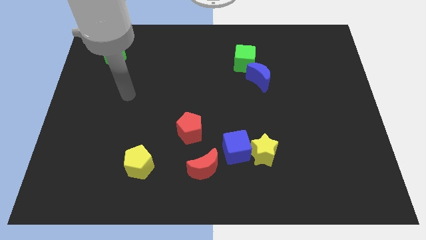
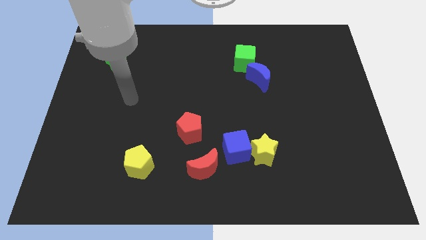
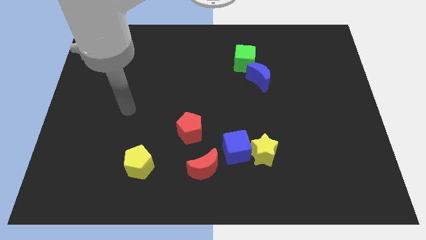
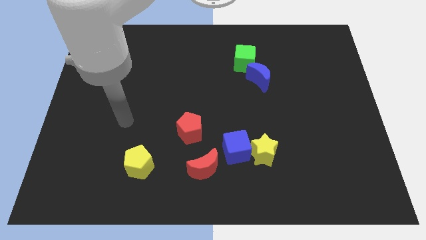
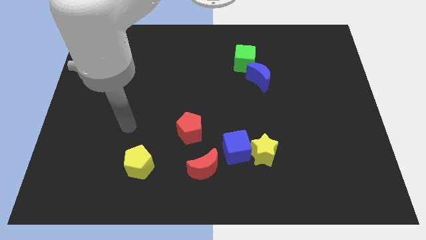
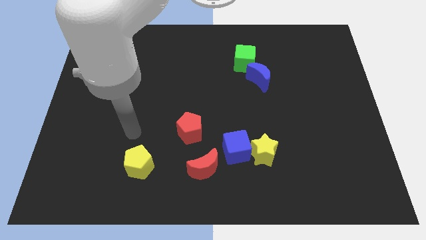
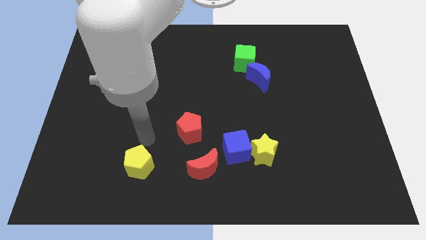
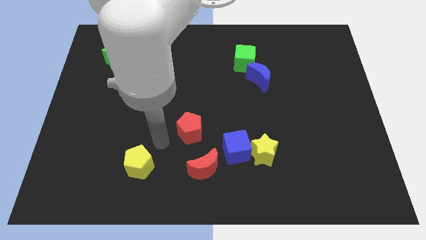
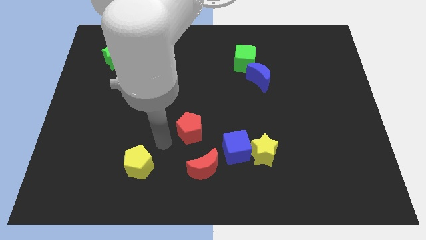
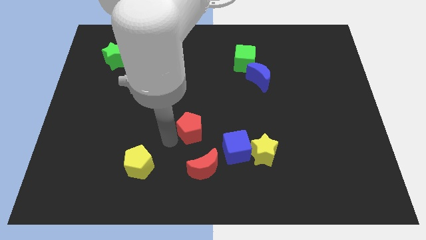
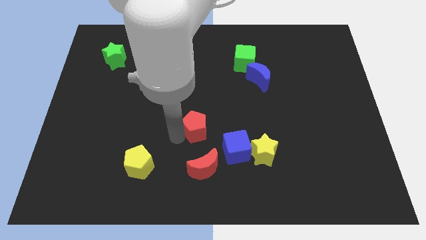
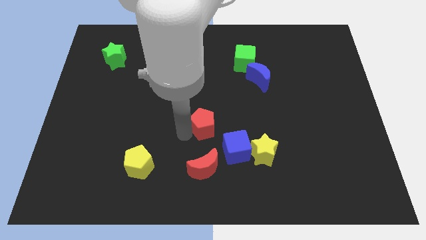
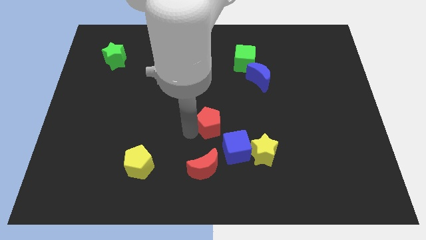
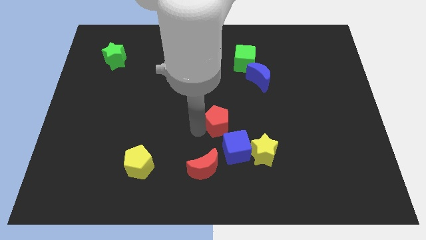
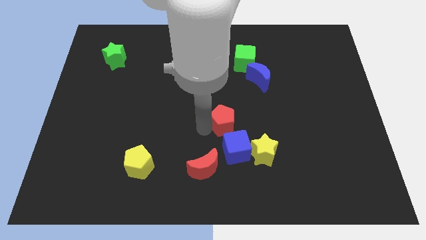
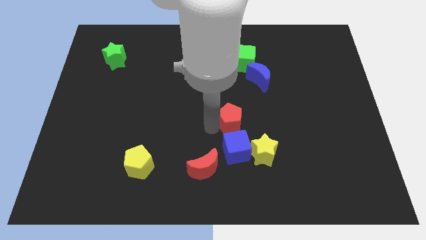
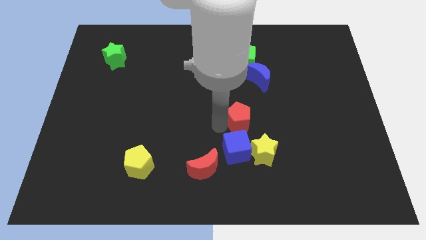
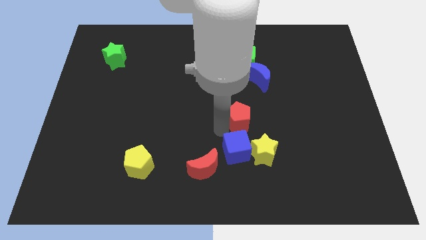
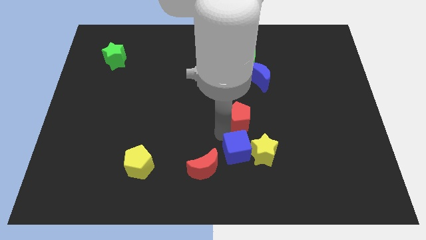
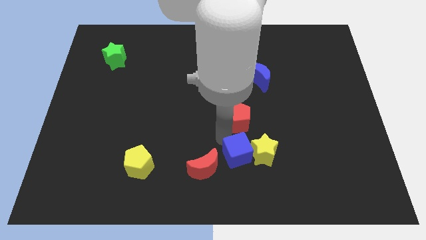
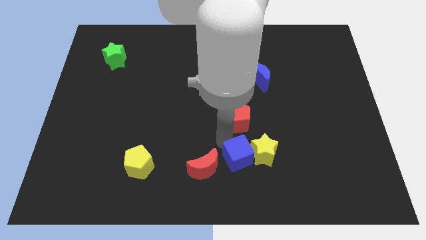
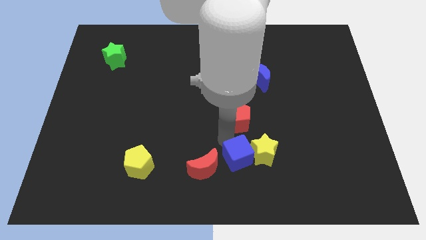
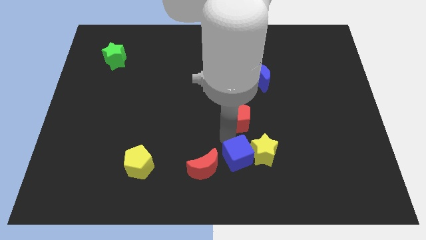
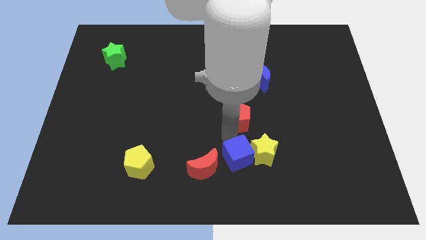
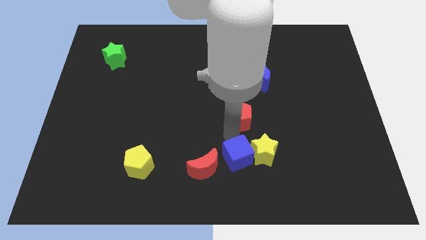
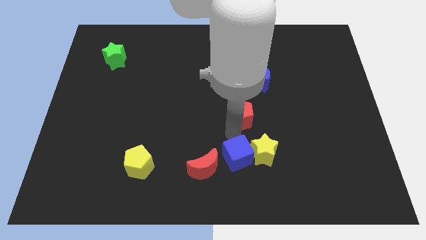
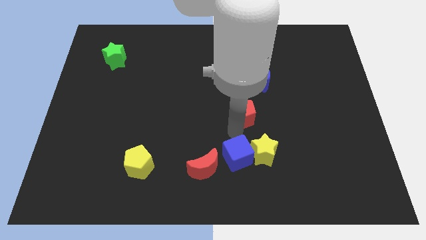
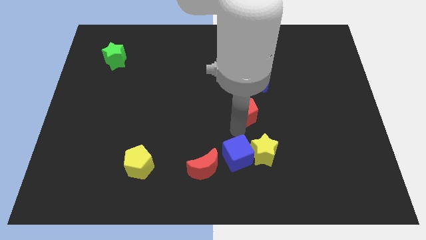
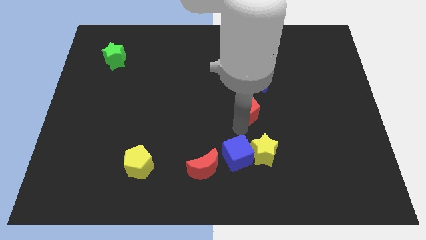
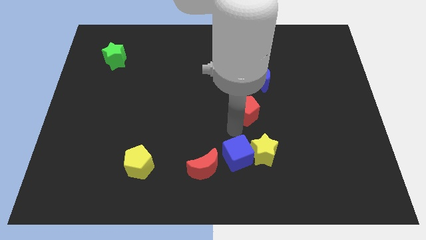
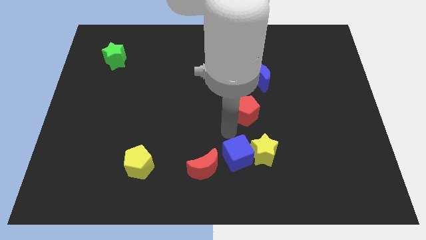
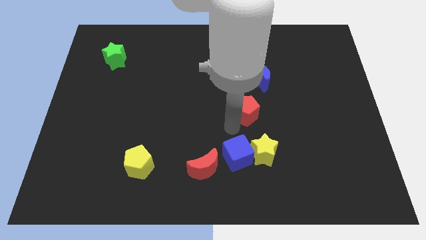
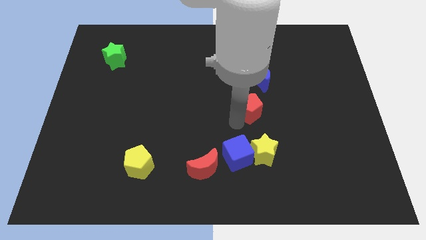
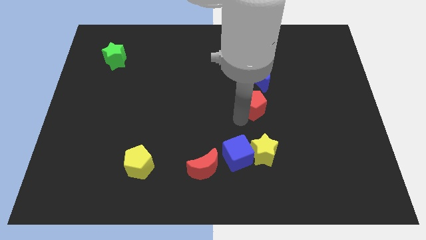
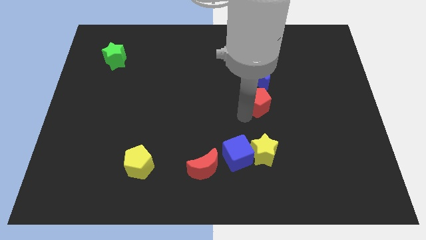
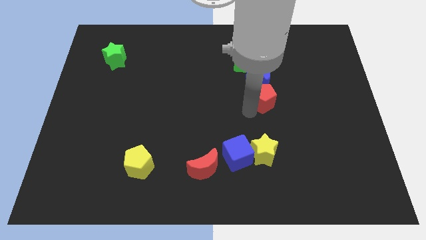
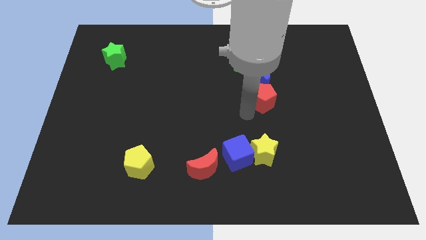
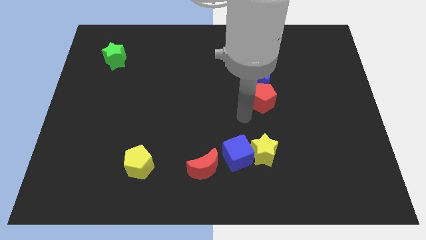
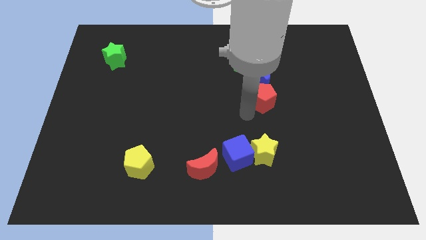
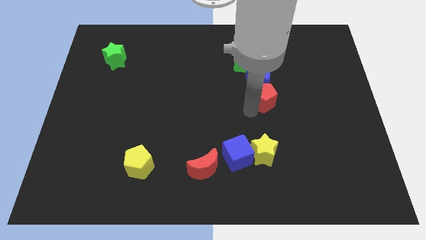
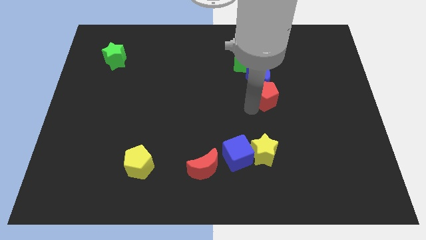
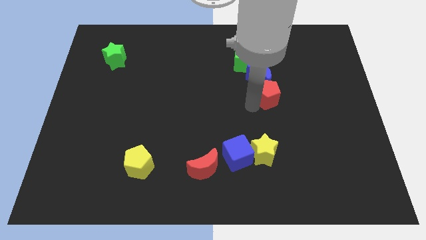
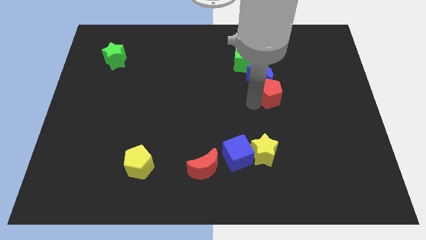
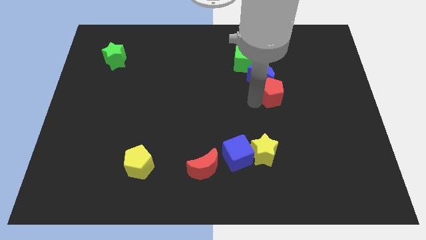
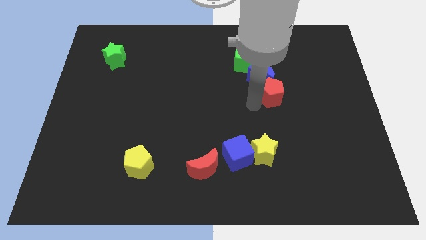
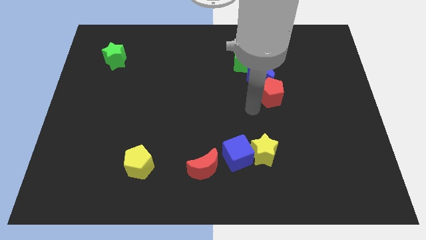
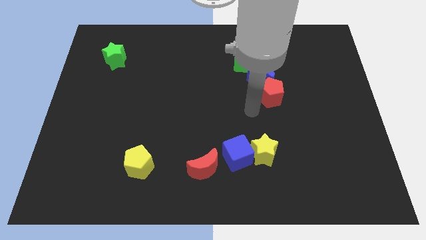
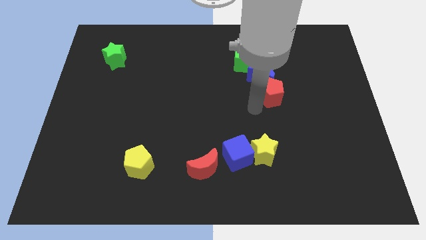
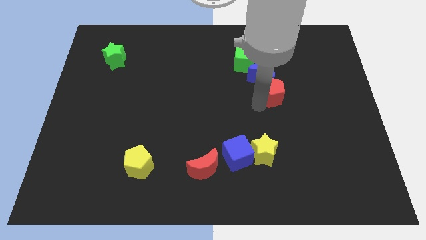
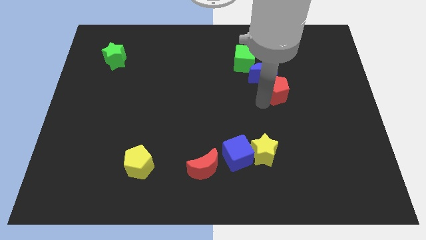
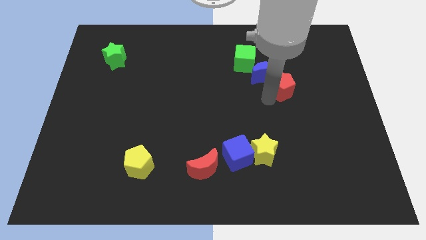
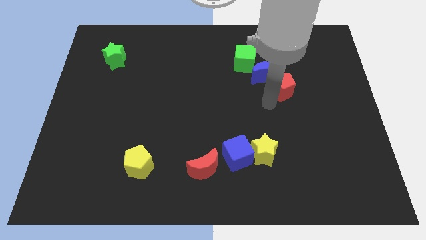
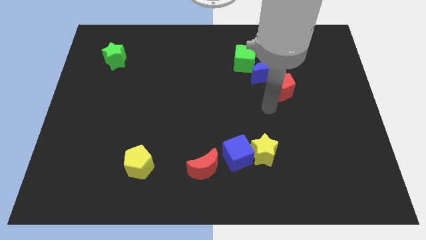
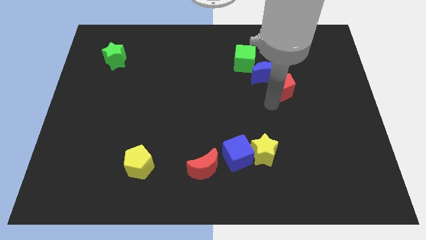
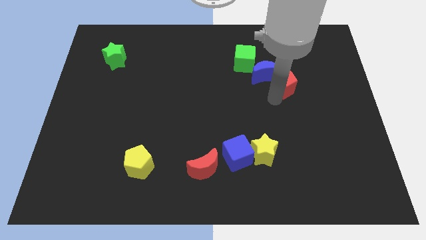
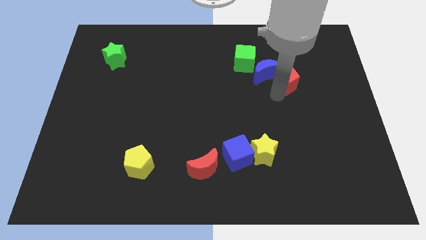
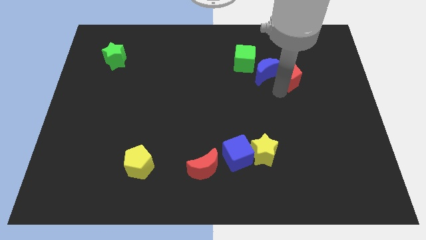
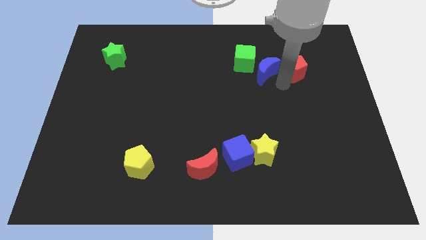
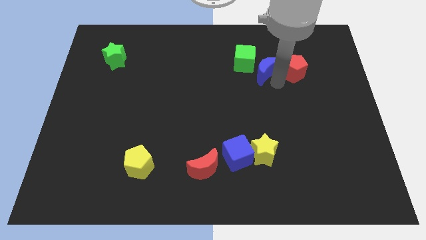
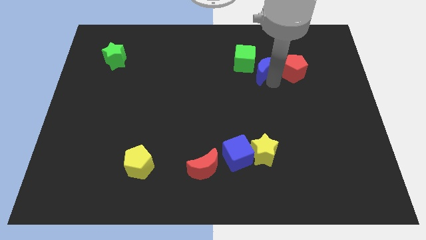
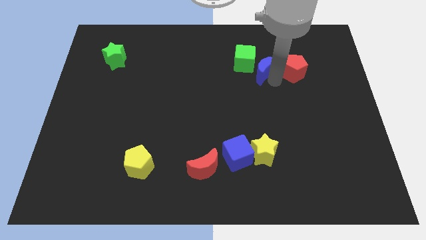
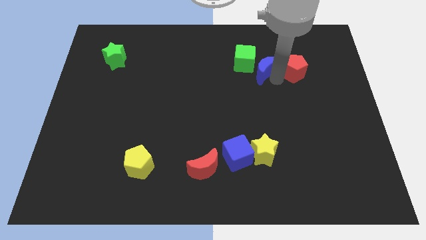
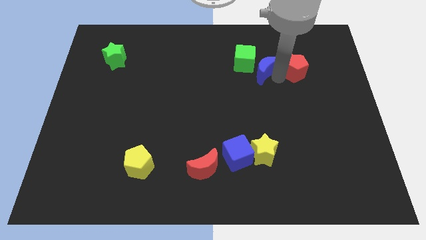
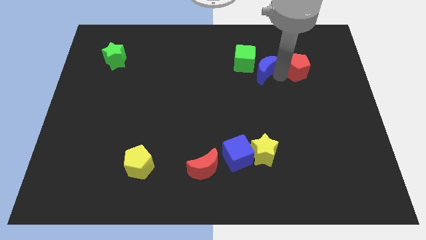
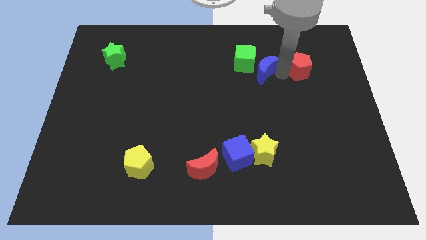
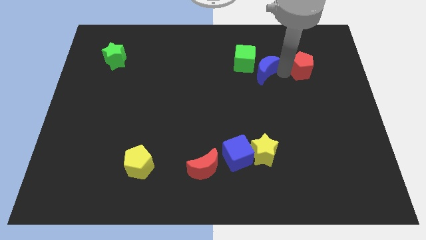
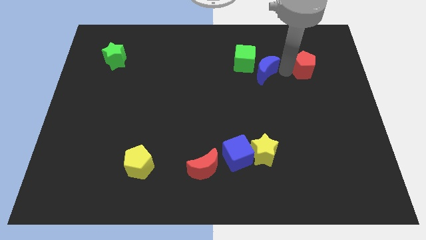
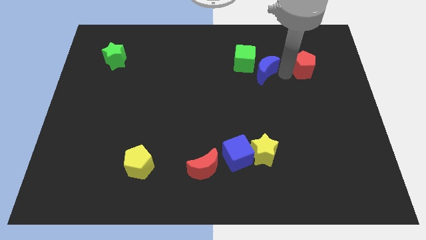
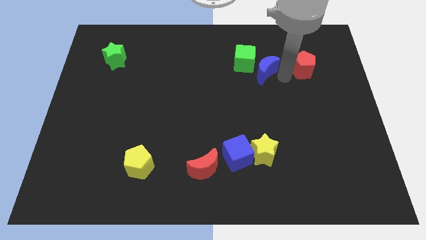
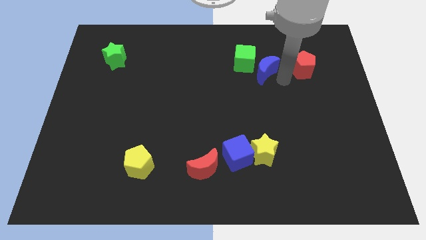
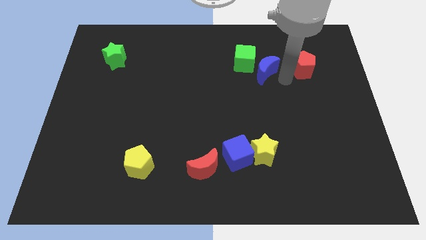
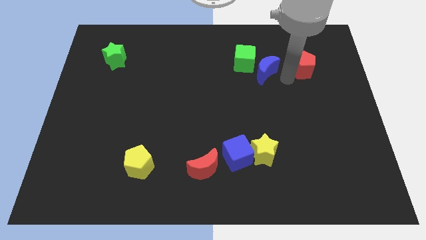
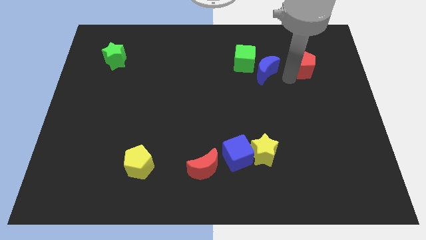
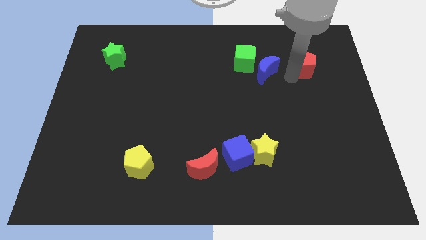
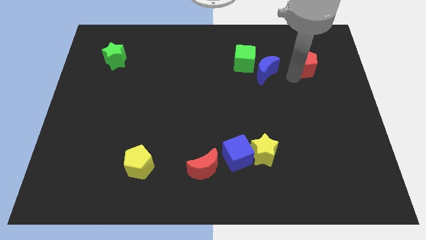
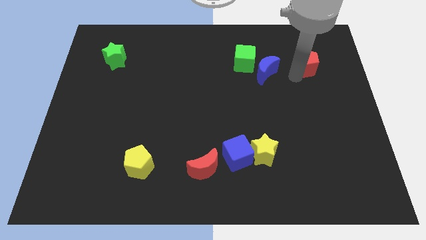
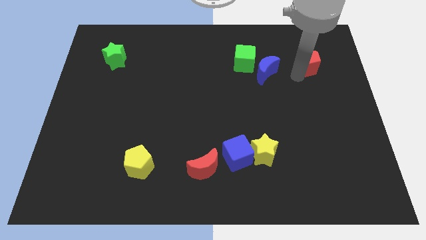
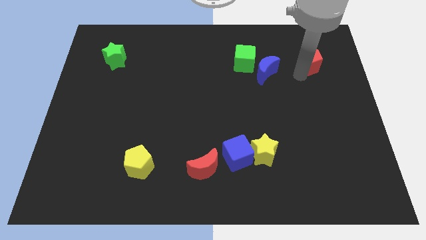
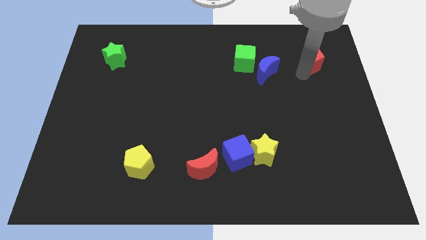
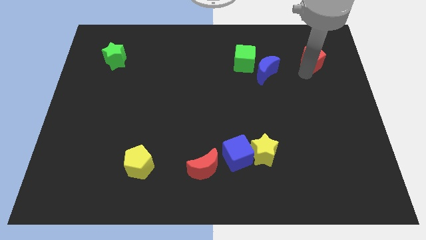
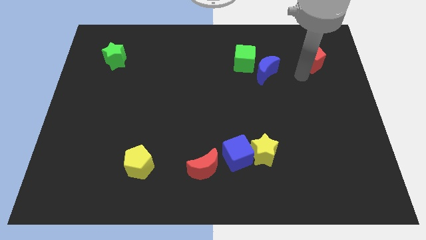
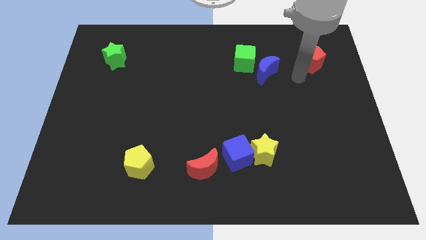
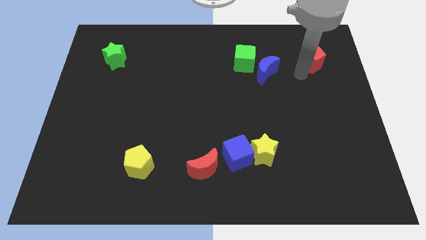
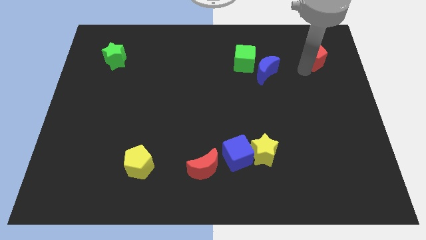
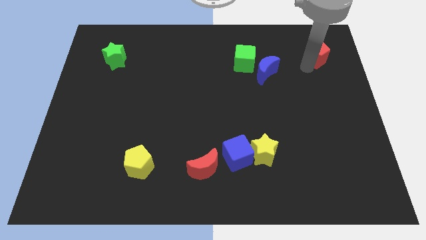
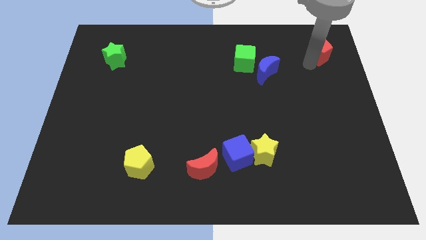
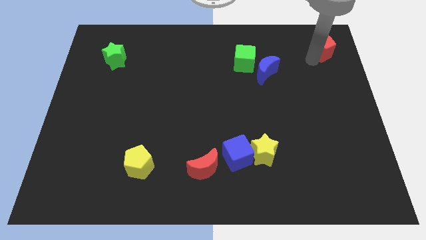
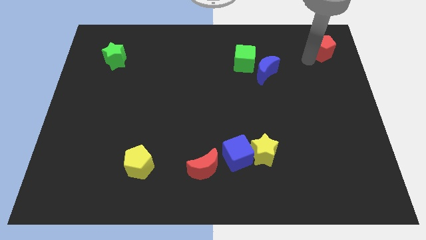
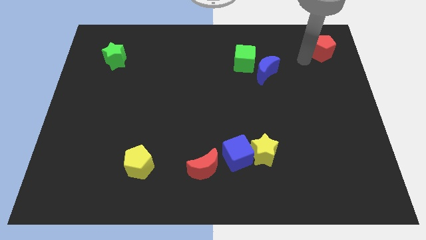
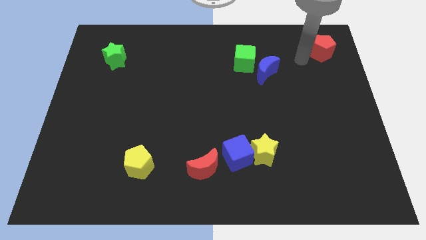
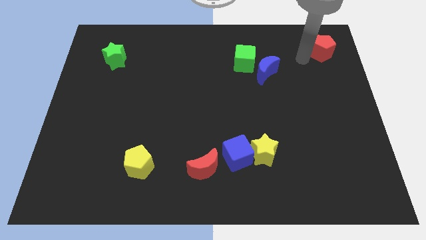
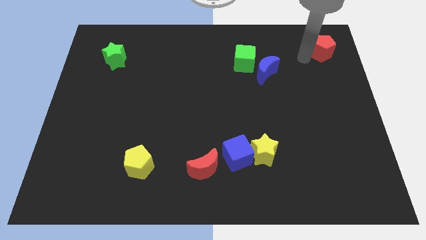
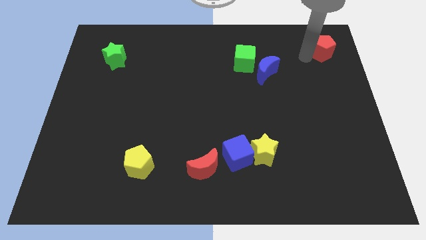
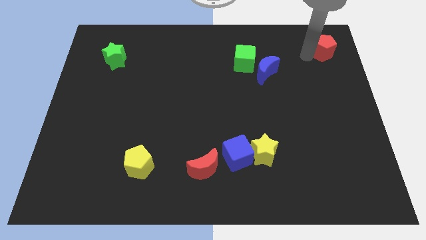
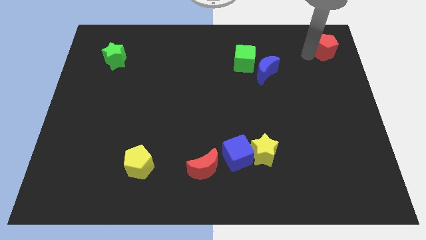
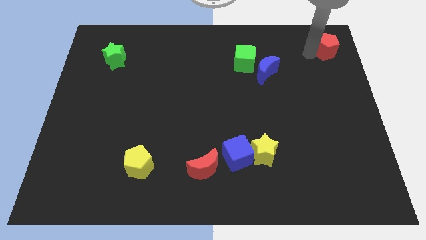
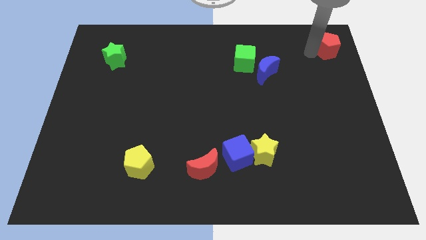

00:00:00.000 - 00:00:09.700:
move the red pentagon to the upper right corner
